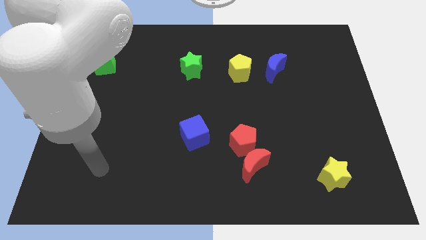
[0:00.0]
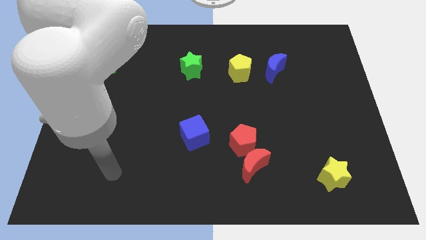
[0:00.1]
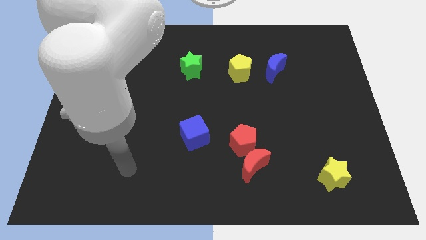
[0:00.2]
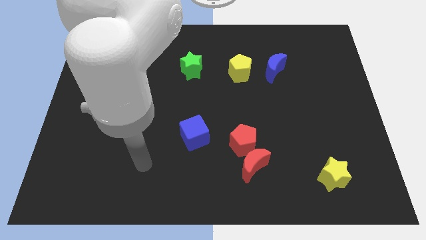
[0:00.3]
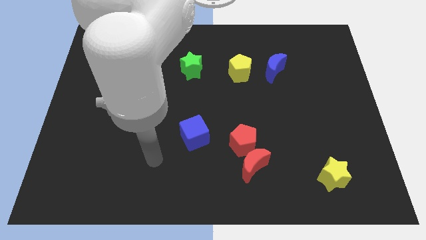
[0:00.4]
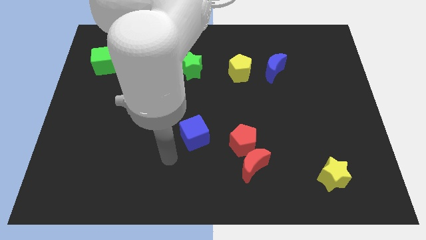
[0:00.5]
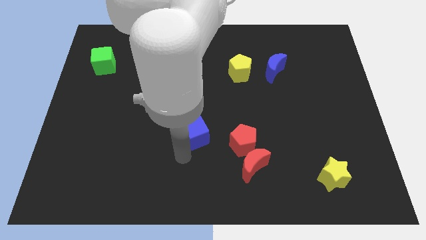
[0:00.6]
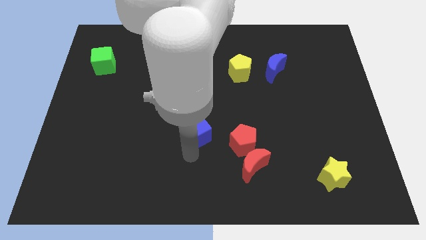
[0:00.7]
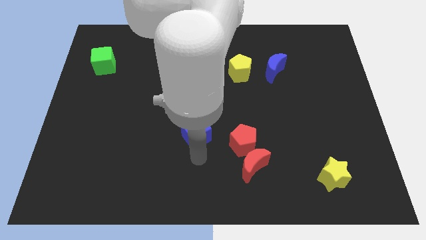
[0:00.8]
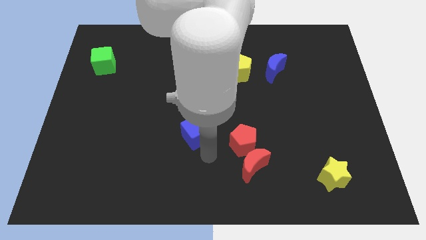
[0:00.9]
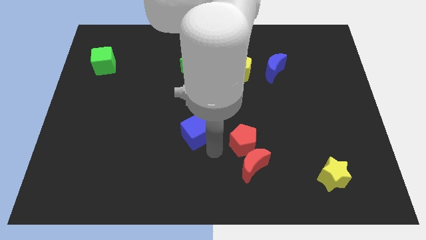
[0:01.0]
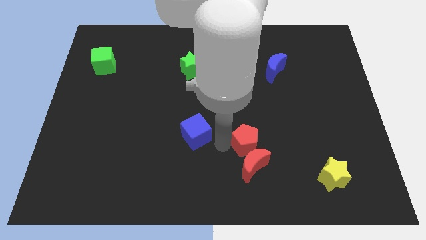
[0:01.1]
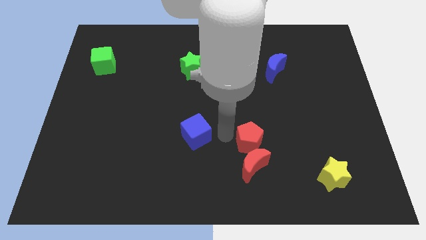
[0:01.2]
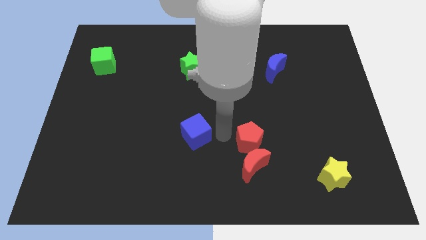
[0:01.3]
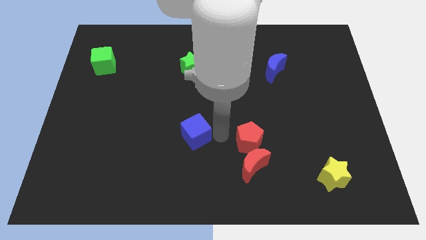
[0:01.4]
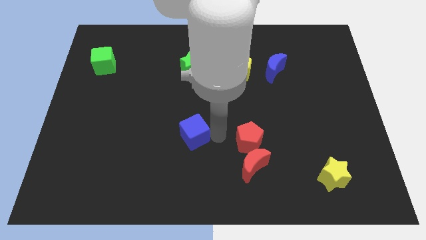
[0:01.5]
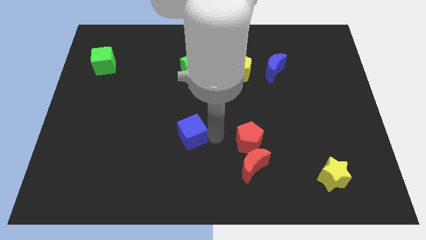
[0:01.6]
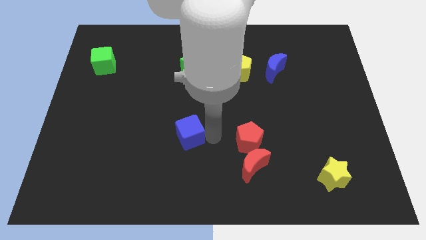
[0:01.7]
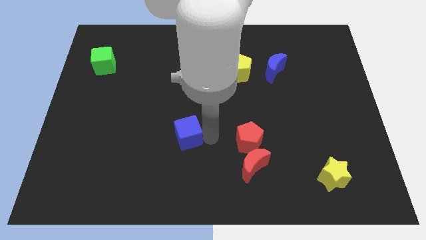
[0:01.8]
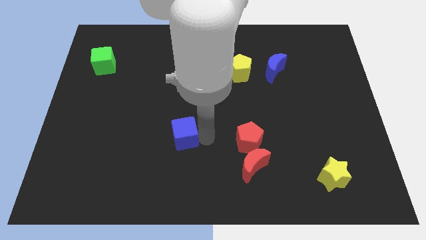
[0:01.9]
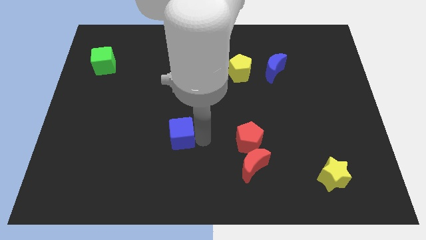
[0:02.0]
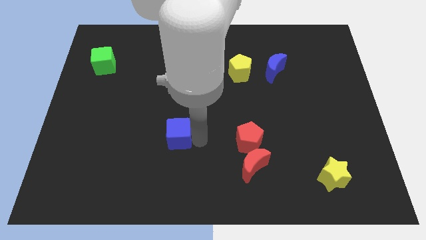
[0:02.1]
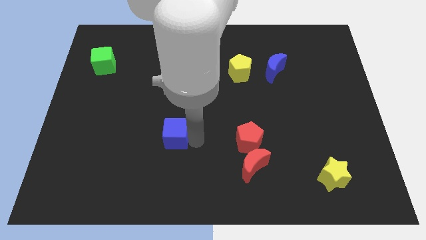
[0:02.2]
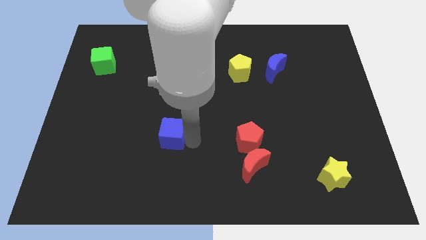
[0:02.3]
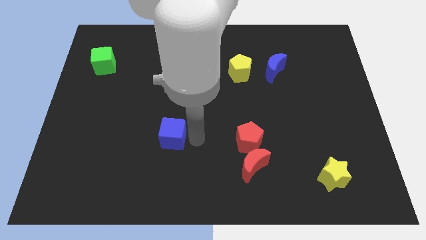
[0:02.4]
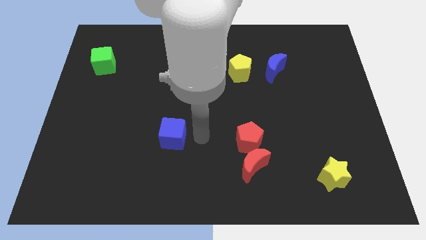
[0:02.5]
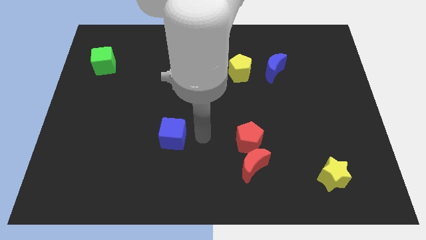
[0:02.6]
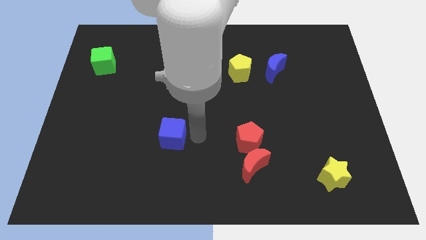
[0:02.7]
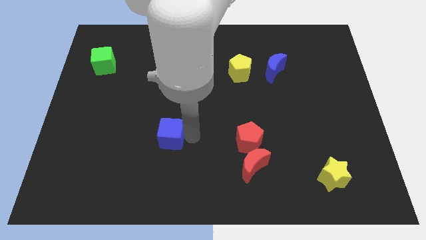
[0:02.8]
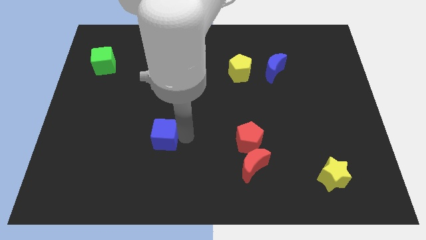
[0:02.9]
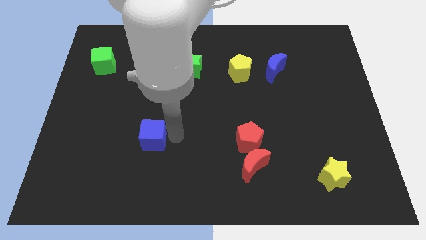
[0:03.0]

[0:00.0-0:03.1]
slightly push the blue cube to the left

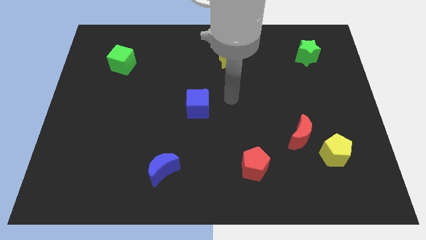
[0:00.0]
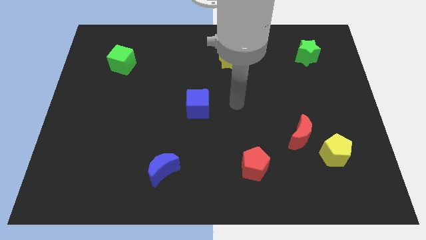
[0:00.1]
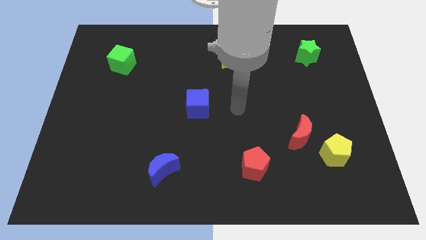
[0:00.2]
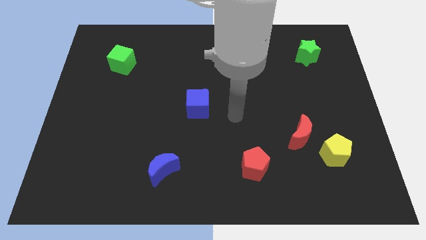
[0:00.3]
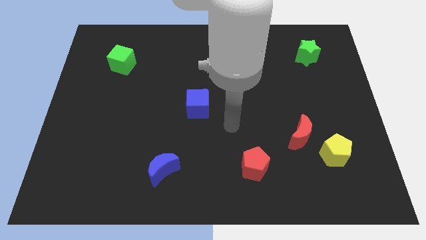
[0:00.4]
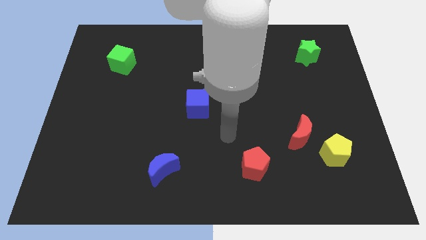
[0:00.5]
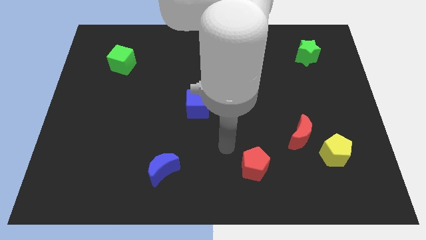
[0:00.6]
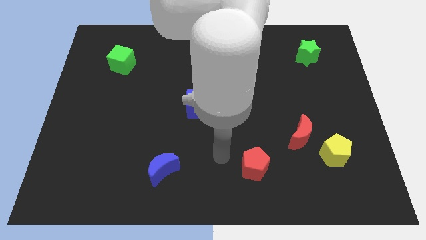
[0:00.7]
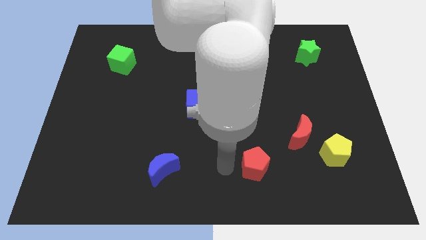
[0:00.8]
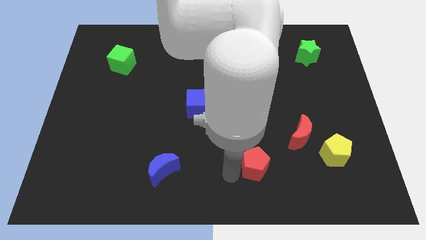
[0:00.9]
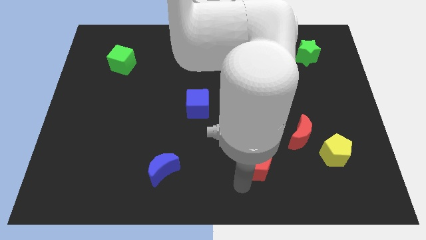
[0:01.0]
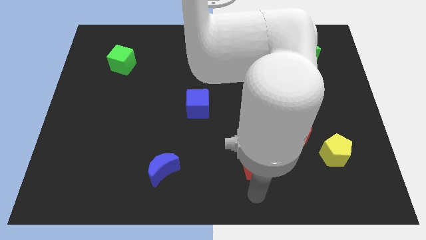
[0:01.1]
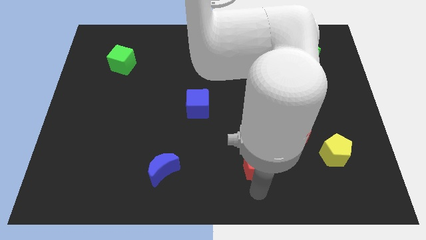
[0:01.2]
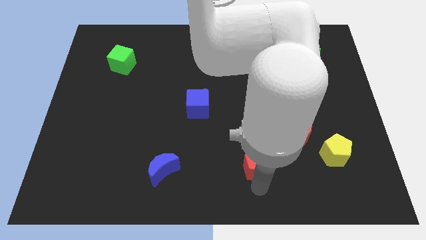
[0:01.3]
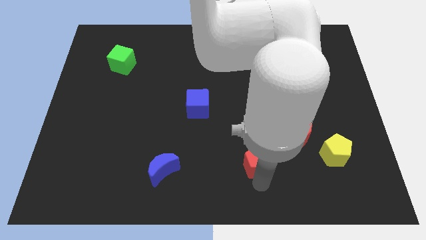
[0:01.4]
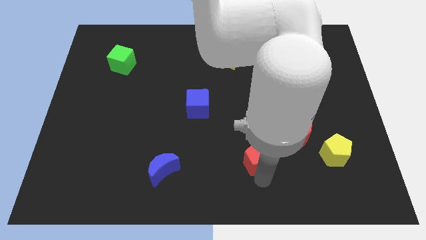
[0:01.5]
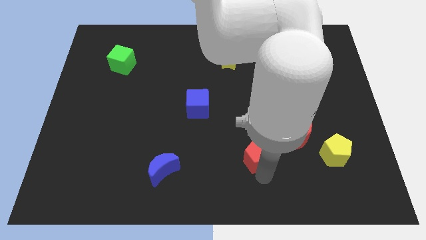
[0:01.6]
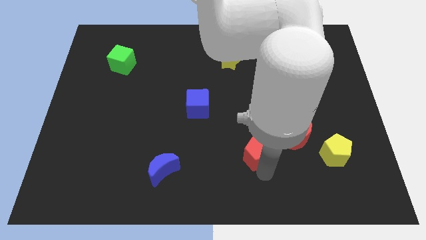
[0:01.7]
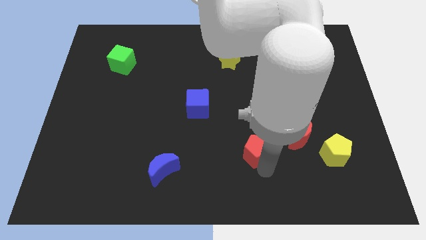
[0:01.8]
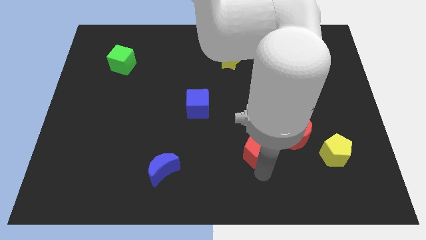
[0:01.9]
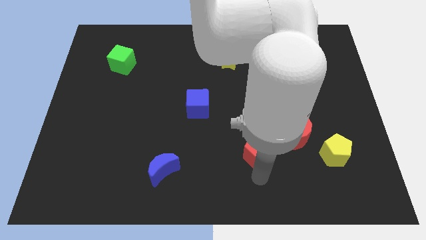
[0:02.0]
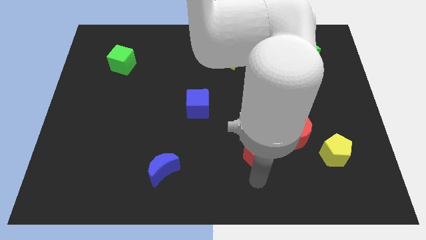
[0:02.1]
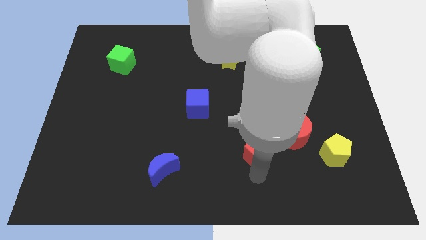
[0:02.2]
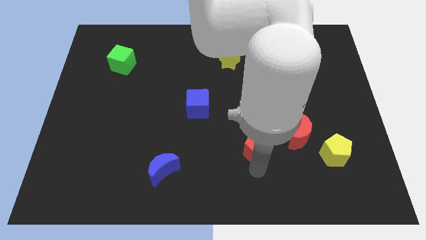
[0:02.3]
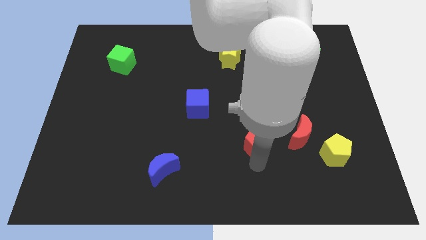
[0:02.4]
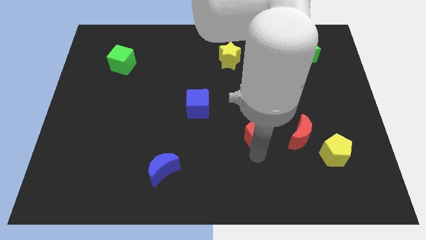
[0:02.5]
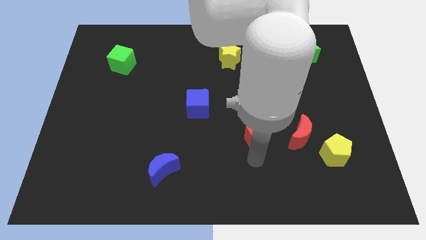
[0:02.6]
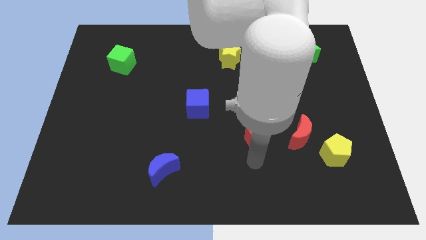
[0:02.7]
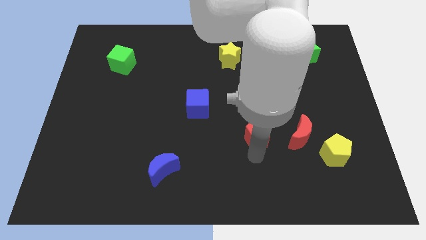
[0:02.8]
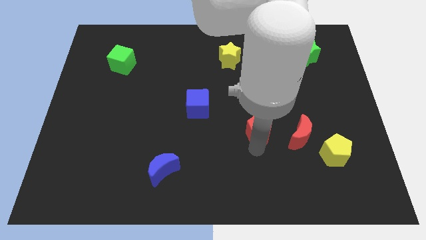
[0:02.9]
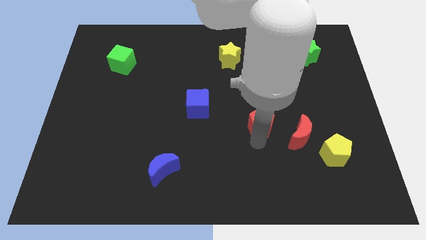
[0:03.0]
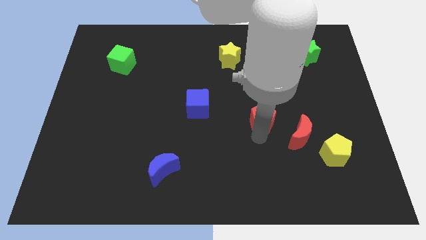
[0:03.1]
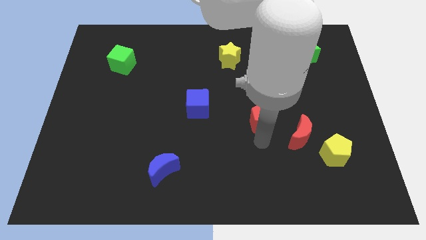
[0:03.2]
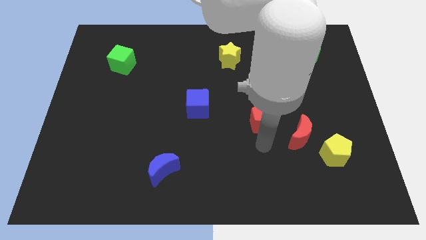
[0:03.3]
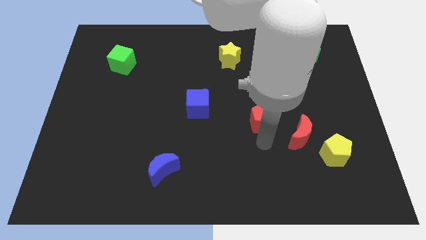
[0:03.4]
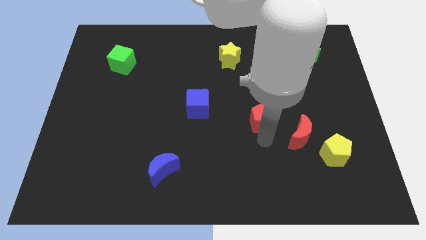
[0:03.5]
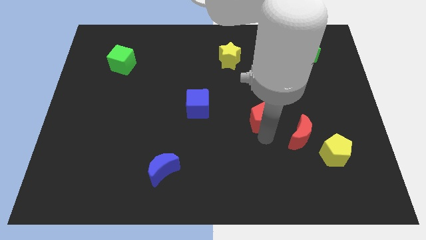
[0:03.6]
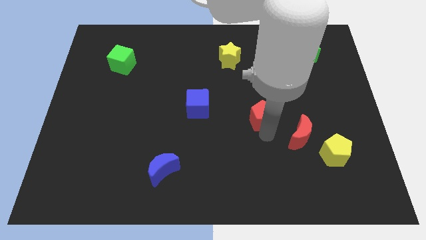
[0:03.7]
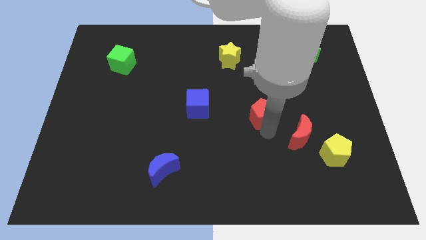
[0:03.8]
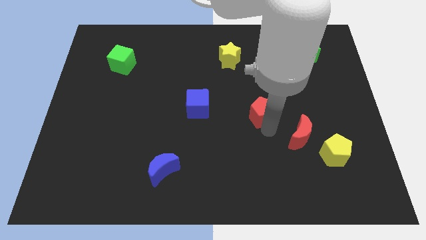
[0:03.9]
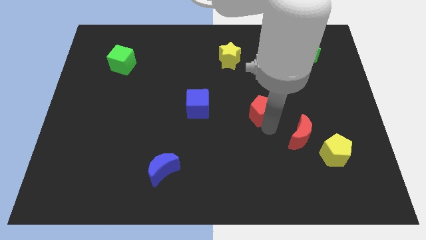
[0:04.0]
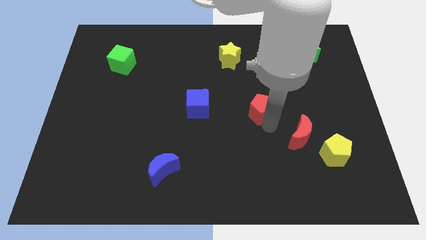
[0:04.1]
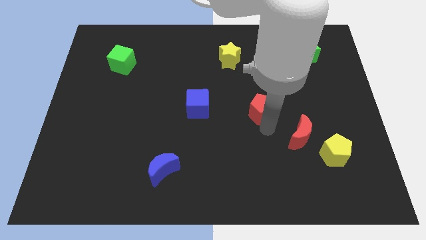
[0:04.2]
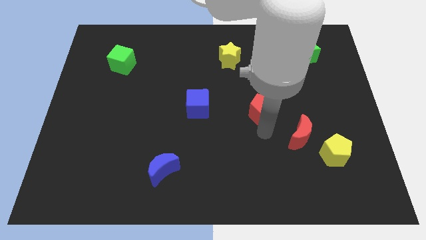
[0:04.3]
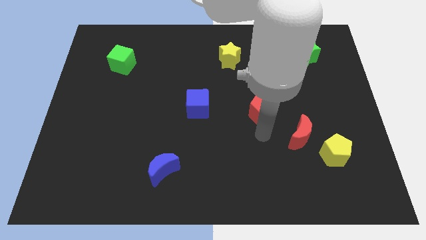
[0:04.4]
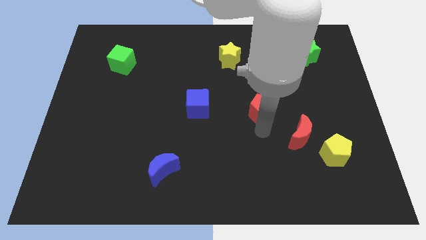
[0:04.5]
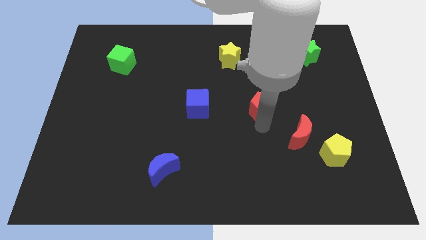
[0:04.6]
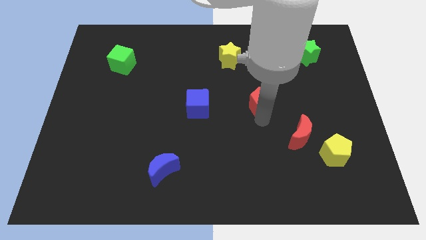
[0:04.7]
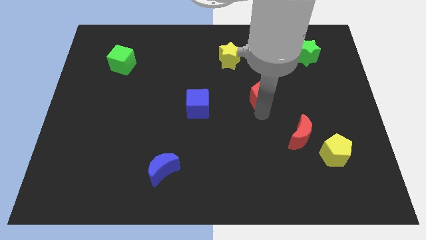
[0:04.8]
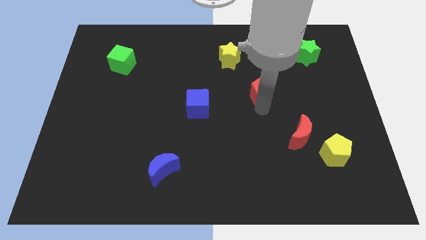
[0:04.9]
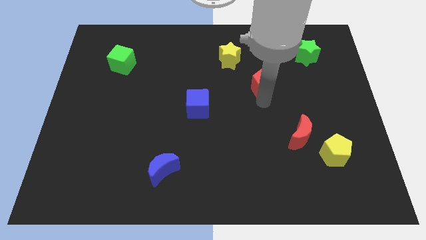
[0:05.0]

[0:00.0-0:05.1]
move the red pentagon upwards
